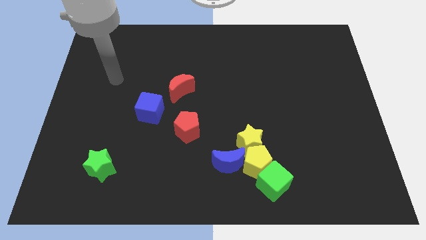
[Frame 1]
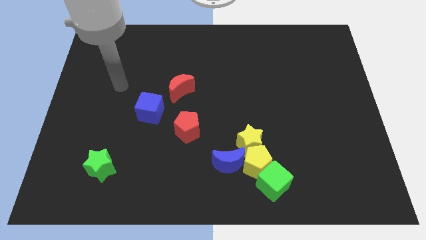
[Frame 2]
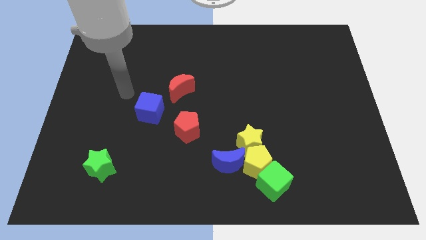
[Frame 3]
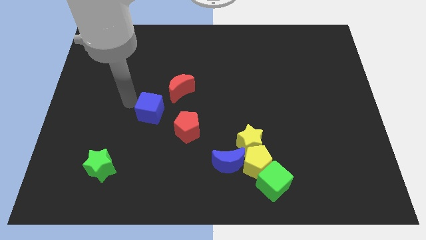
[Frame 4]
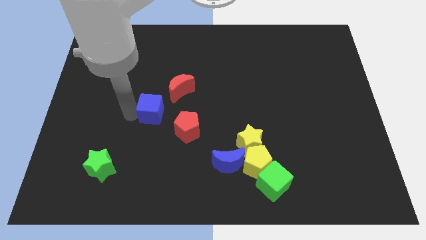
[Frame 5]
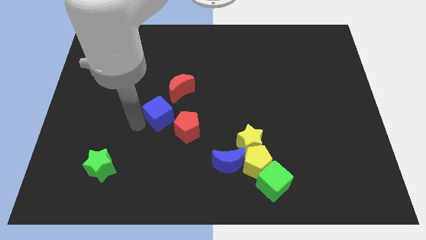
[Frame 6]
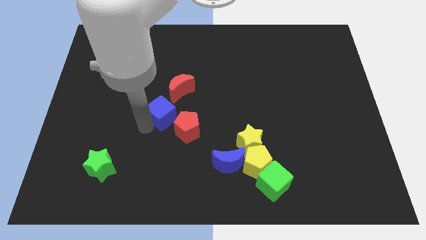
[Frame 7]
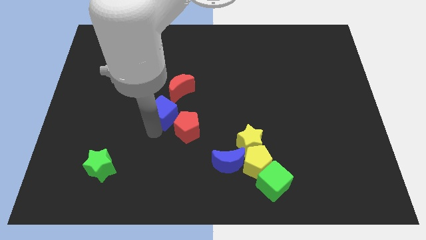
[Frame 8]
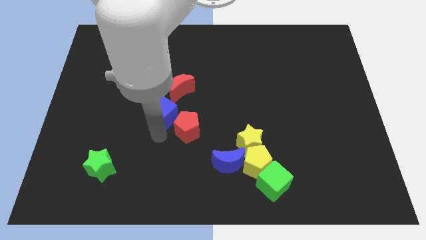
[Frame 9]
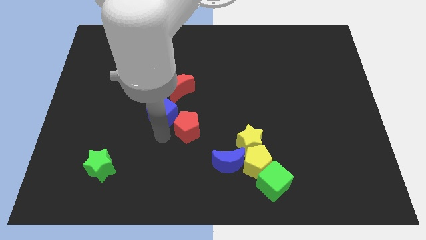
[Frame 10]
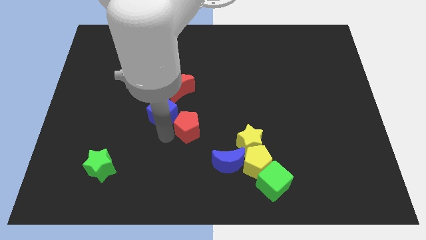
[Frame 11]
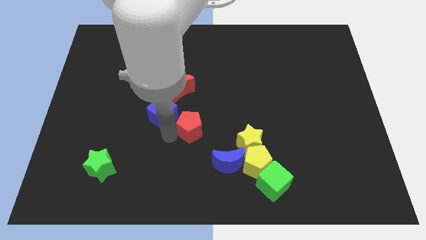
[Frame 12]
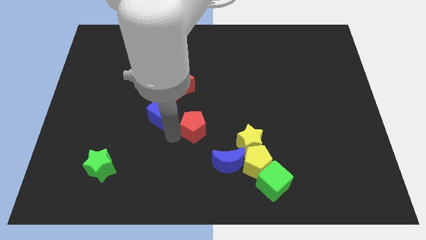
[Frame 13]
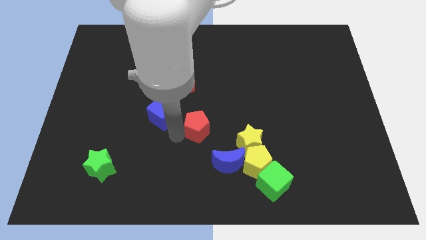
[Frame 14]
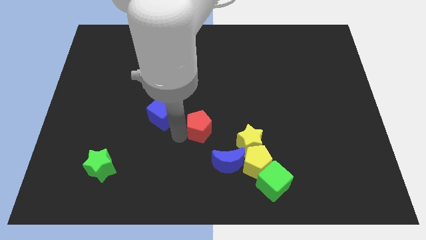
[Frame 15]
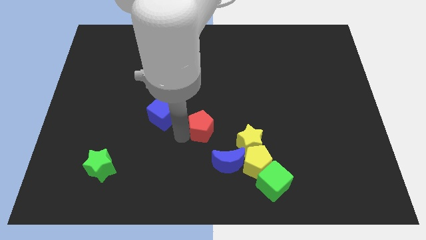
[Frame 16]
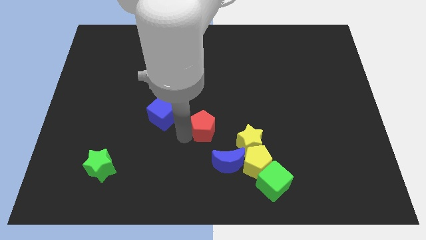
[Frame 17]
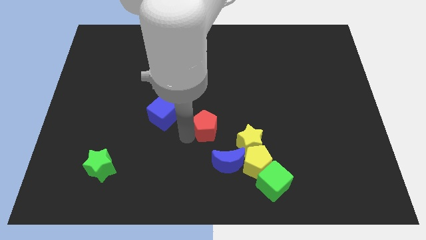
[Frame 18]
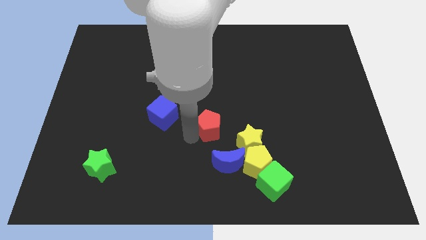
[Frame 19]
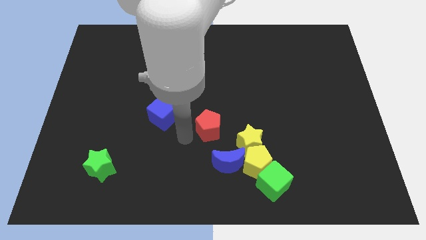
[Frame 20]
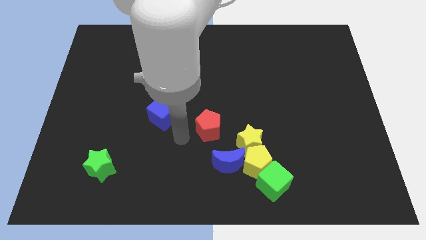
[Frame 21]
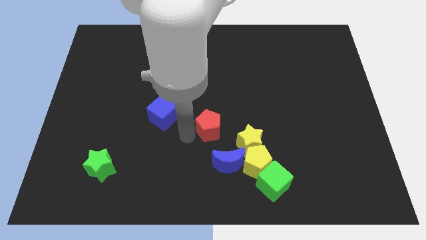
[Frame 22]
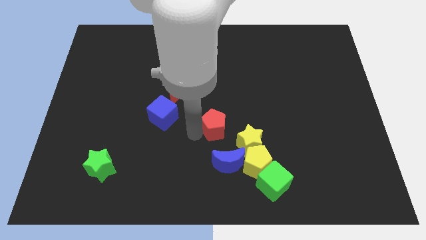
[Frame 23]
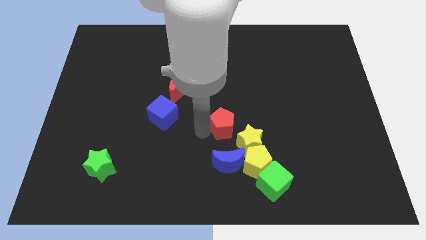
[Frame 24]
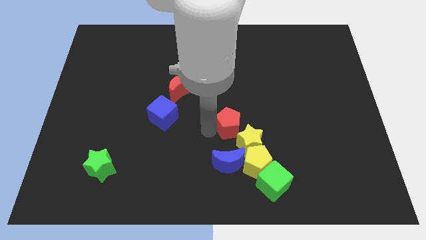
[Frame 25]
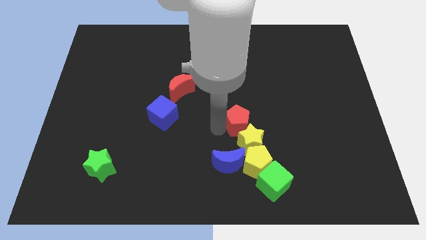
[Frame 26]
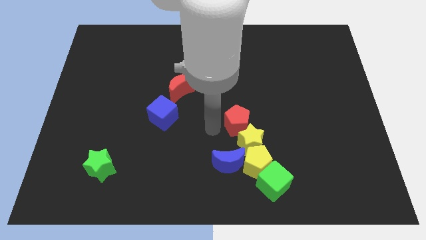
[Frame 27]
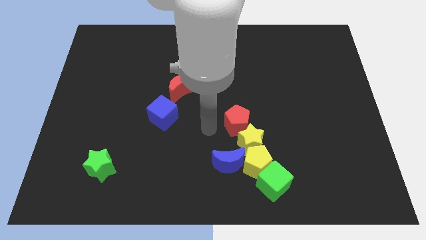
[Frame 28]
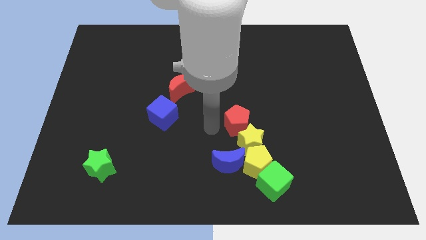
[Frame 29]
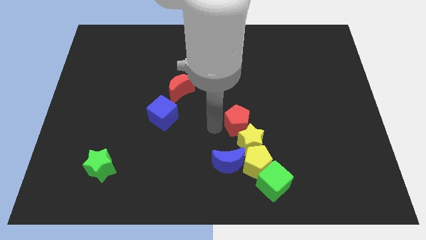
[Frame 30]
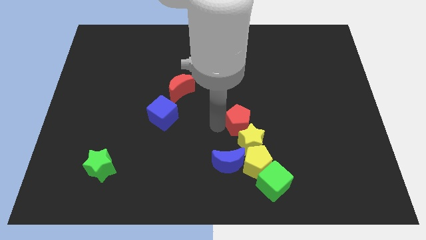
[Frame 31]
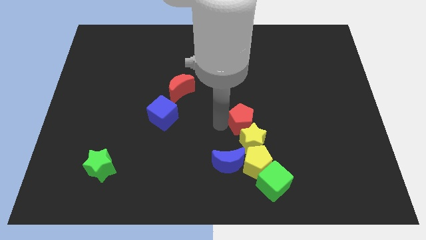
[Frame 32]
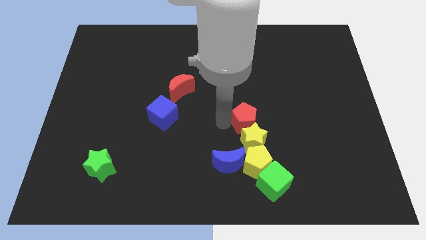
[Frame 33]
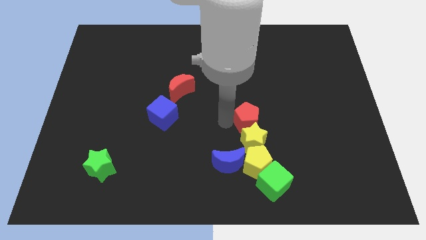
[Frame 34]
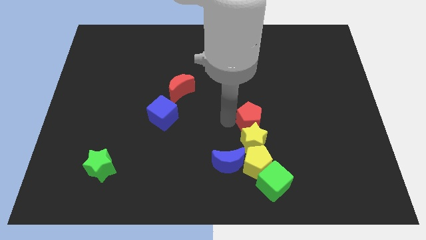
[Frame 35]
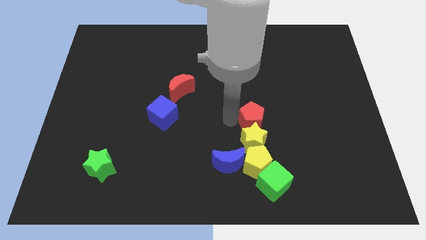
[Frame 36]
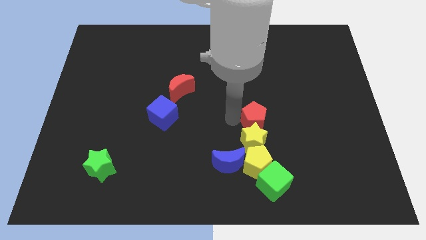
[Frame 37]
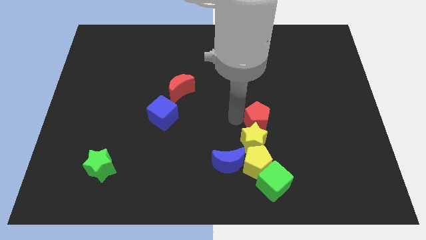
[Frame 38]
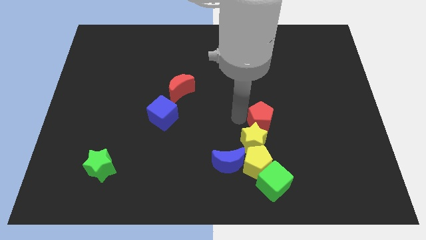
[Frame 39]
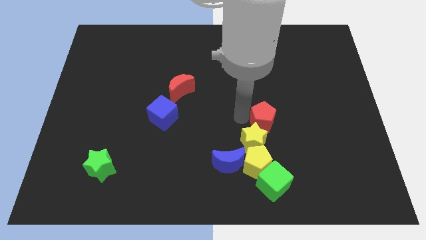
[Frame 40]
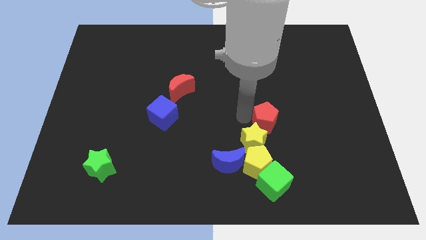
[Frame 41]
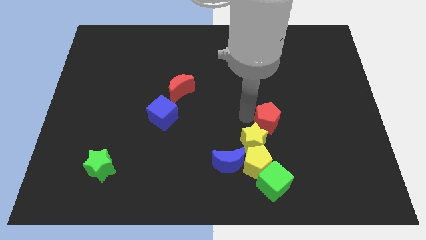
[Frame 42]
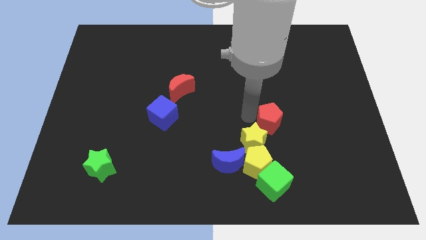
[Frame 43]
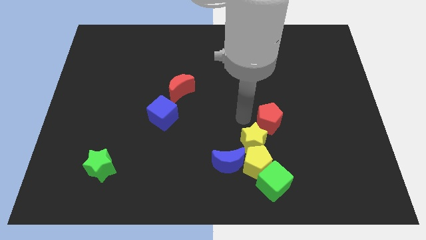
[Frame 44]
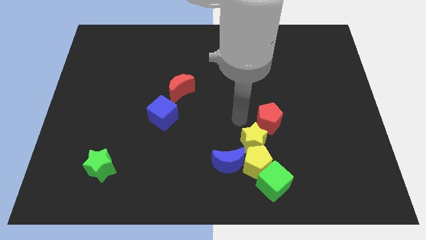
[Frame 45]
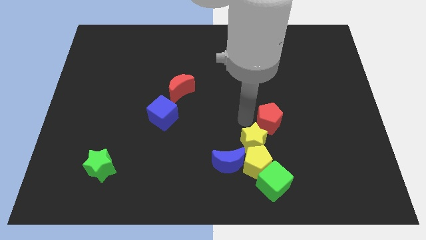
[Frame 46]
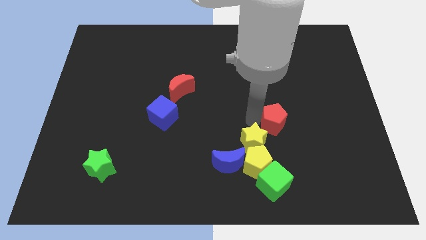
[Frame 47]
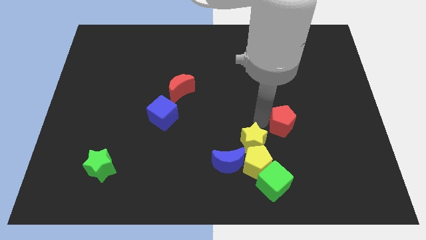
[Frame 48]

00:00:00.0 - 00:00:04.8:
move the red pentagon to the right

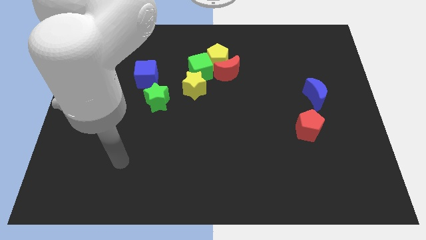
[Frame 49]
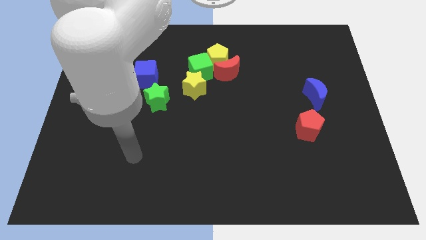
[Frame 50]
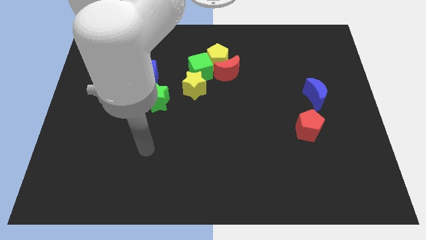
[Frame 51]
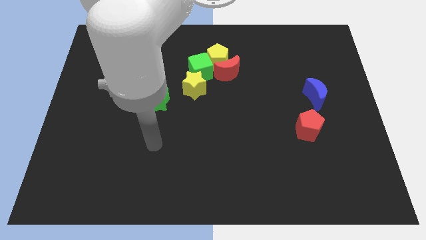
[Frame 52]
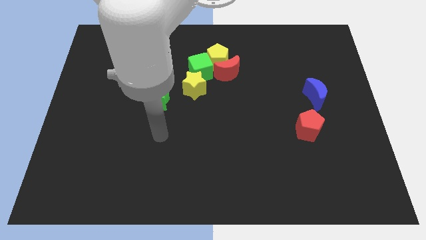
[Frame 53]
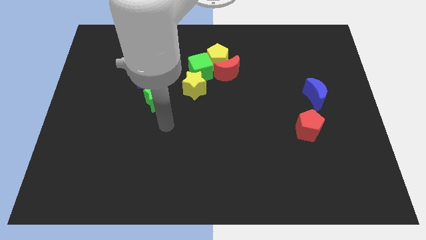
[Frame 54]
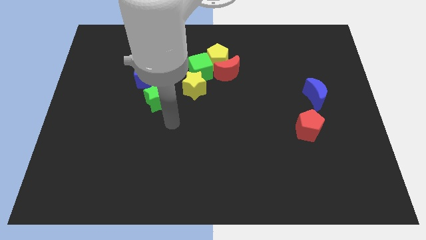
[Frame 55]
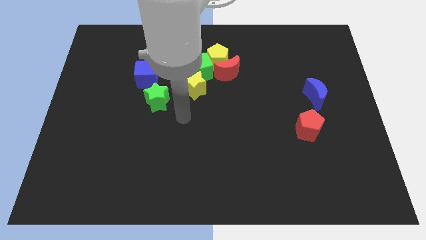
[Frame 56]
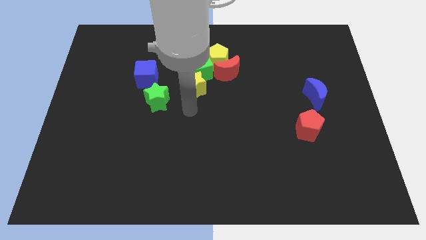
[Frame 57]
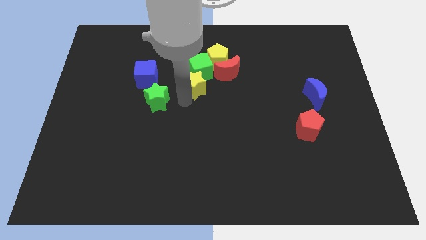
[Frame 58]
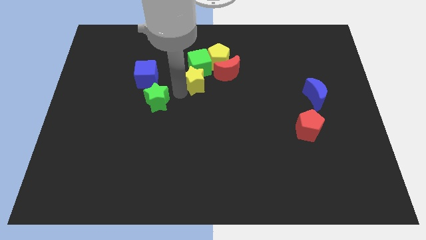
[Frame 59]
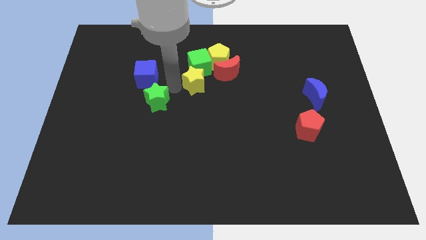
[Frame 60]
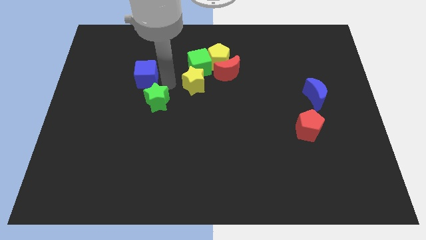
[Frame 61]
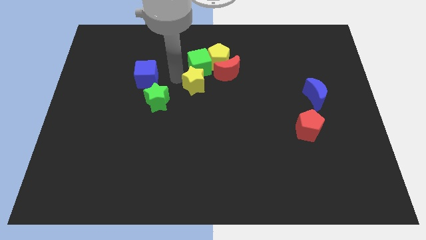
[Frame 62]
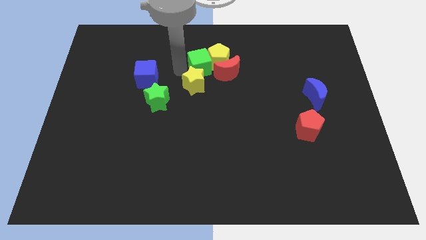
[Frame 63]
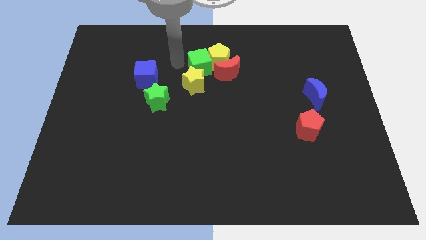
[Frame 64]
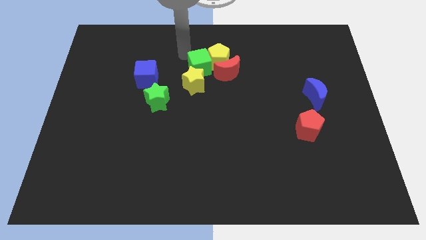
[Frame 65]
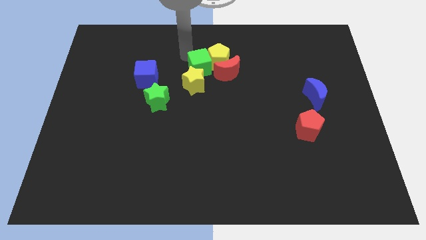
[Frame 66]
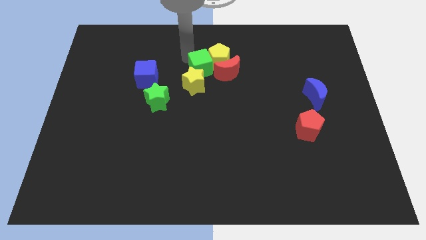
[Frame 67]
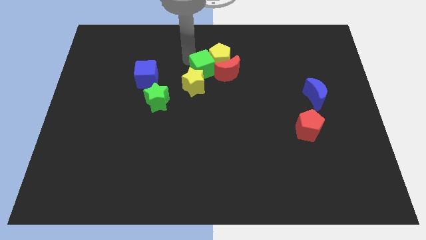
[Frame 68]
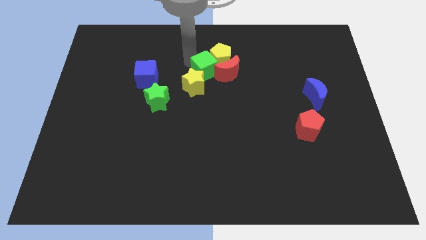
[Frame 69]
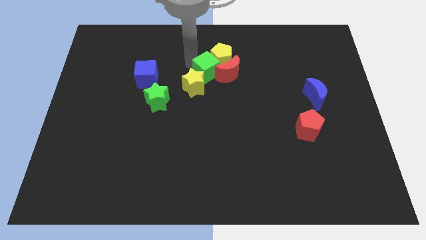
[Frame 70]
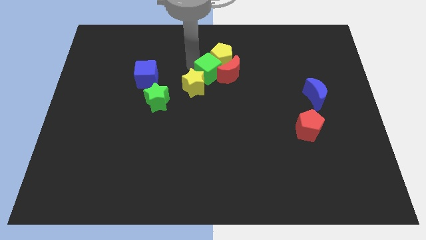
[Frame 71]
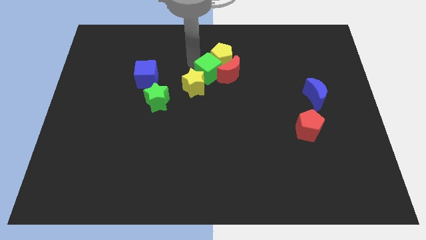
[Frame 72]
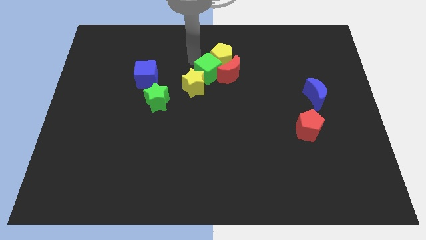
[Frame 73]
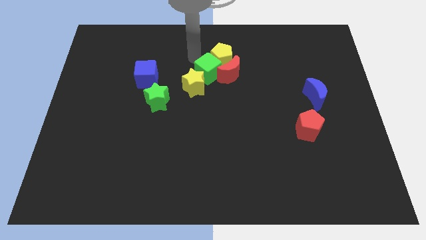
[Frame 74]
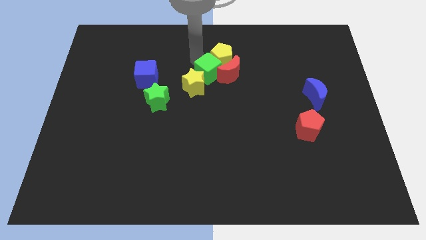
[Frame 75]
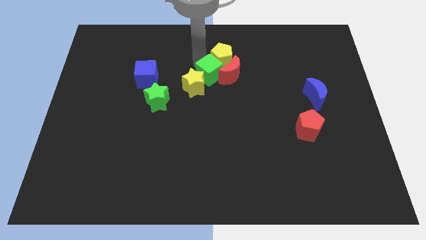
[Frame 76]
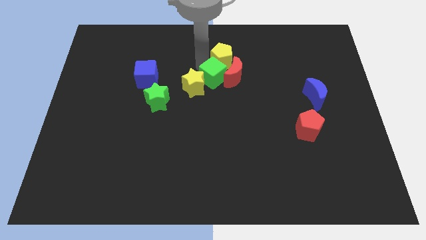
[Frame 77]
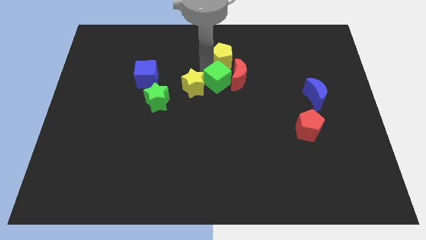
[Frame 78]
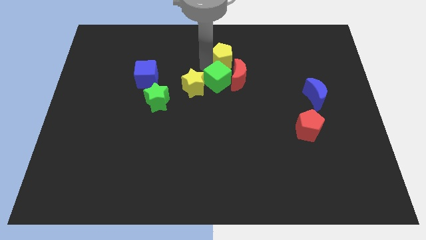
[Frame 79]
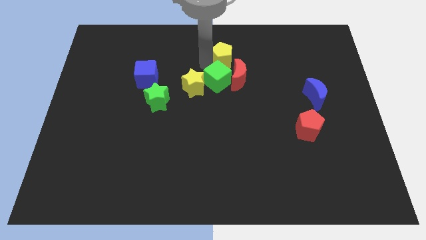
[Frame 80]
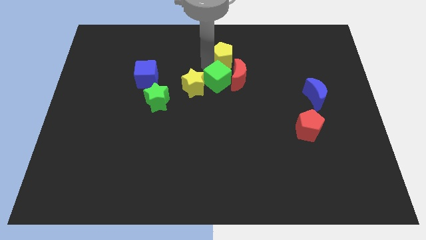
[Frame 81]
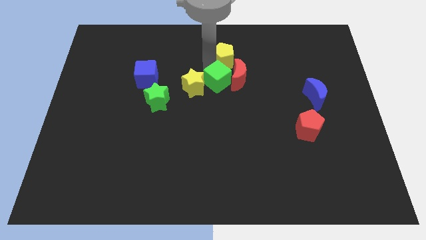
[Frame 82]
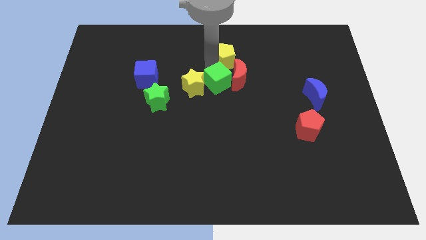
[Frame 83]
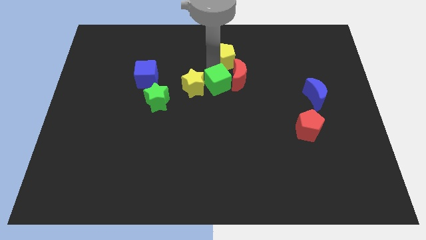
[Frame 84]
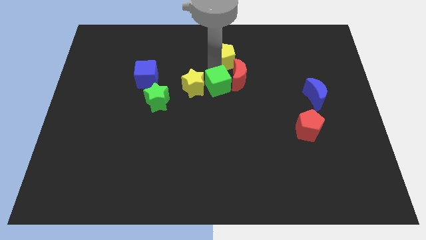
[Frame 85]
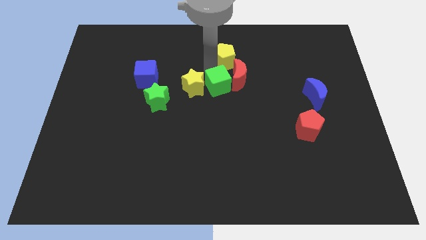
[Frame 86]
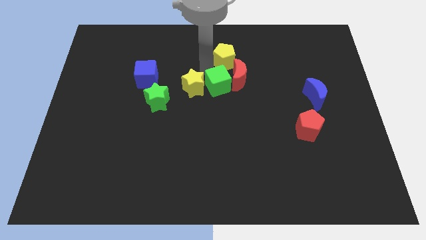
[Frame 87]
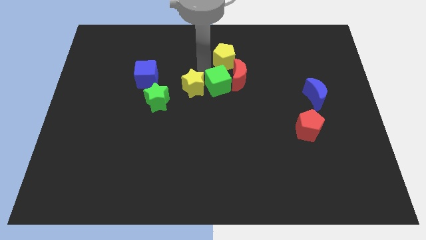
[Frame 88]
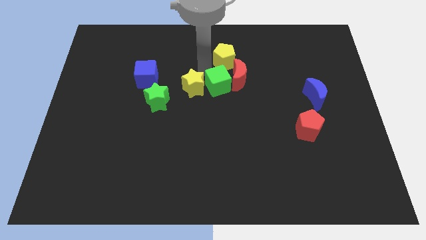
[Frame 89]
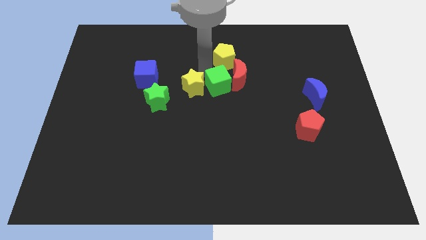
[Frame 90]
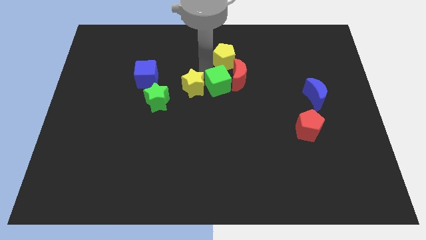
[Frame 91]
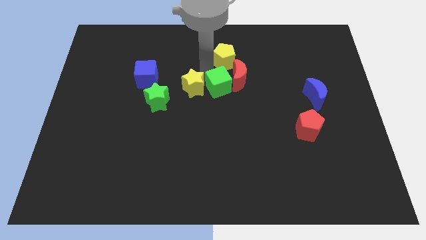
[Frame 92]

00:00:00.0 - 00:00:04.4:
slightly move the green cube down and then right
